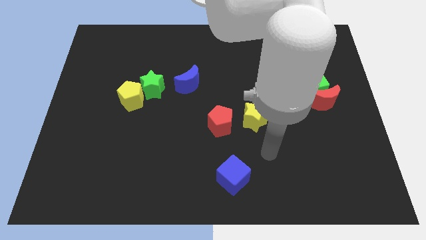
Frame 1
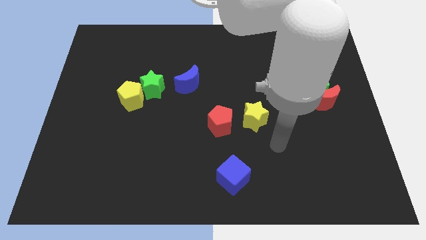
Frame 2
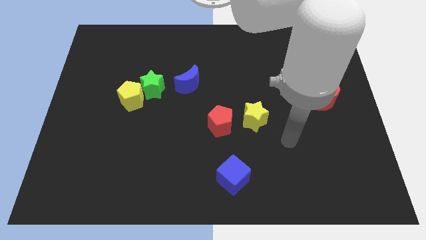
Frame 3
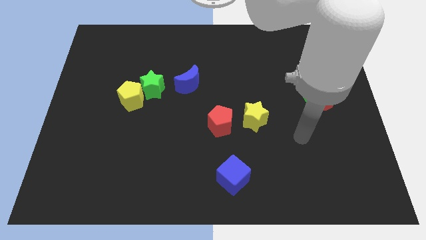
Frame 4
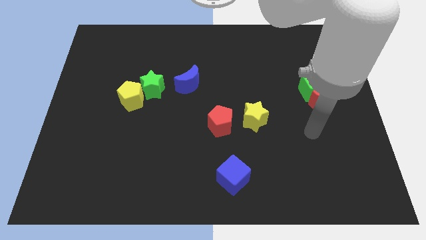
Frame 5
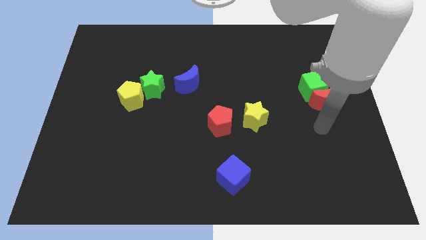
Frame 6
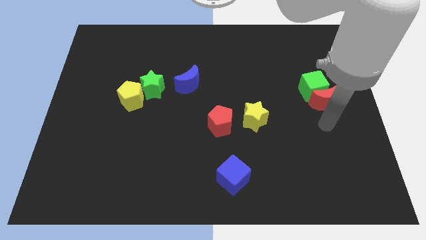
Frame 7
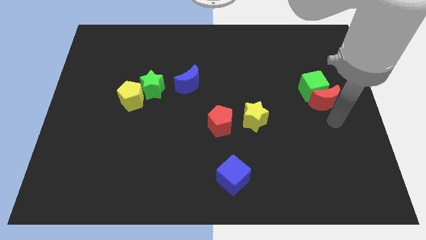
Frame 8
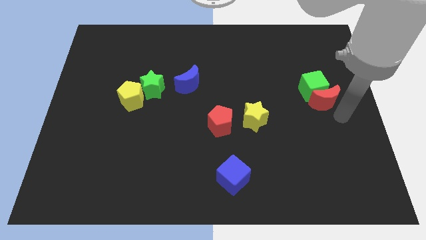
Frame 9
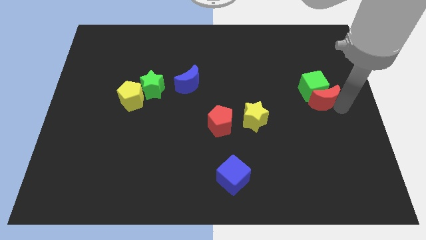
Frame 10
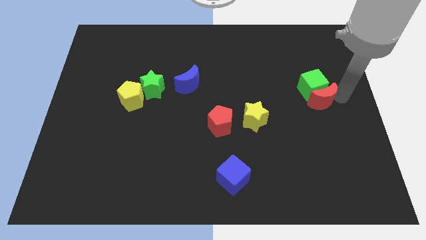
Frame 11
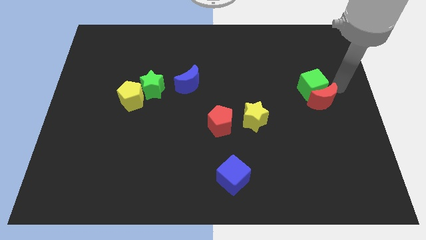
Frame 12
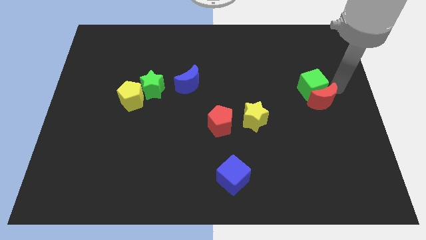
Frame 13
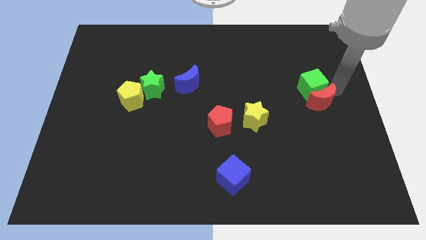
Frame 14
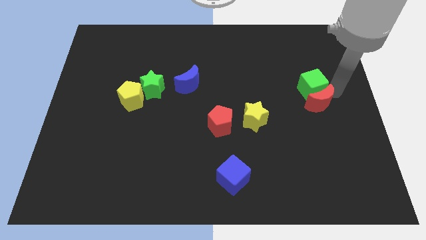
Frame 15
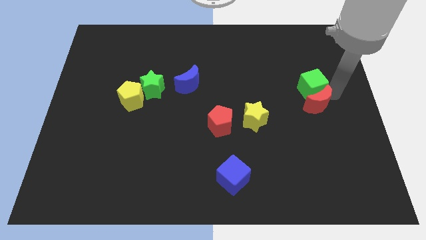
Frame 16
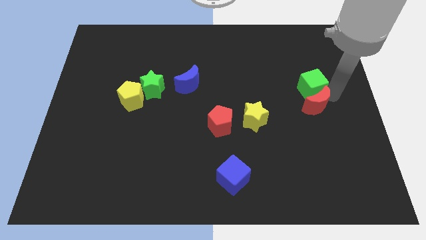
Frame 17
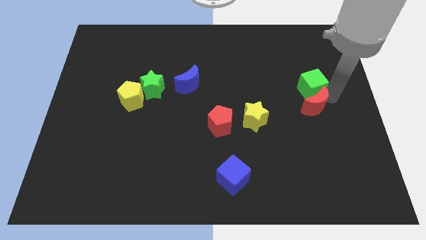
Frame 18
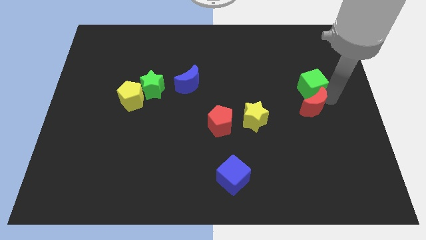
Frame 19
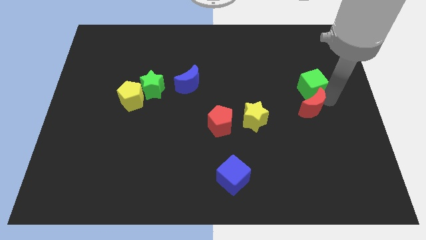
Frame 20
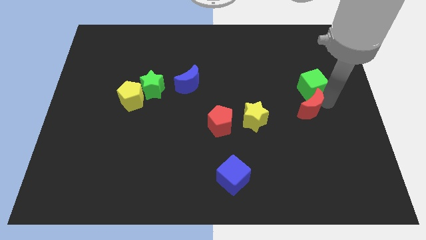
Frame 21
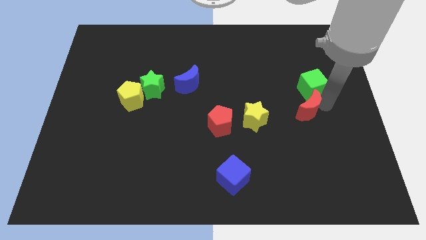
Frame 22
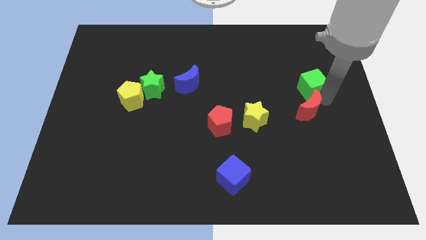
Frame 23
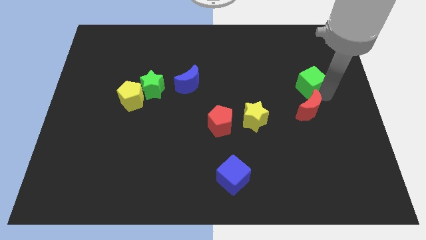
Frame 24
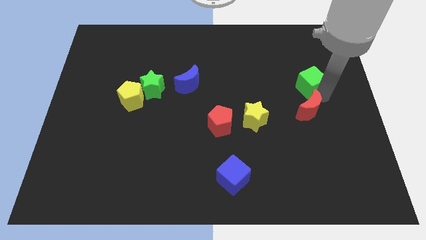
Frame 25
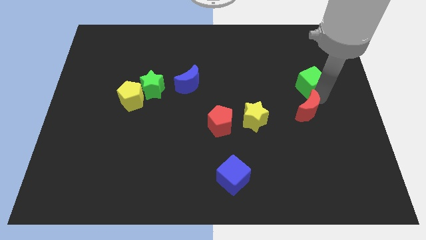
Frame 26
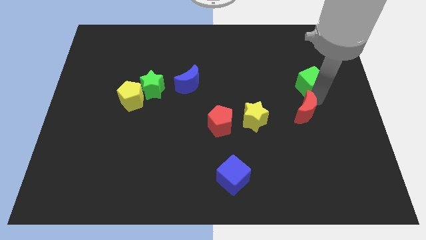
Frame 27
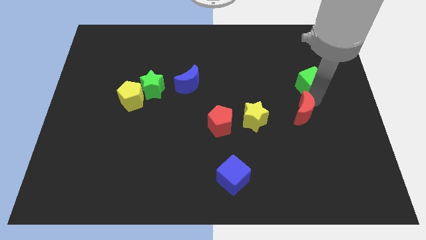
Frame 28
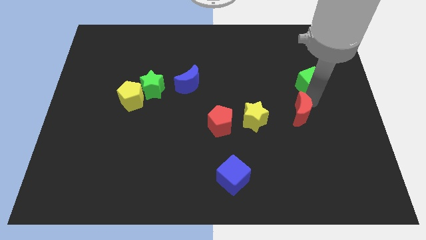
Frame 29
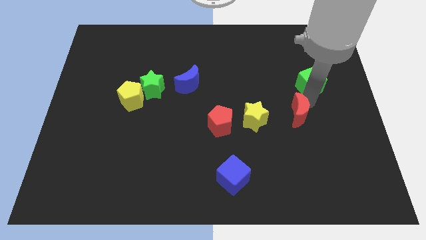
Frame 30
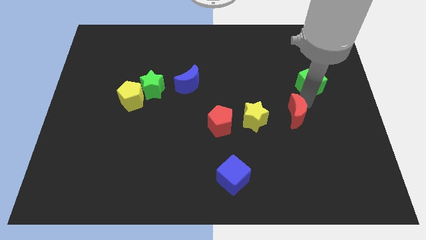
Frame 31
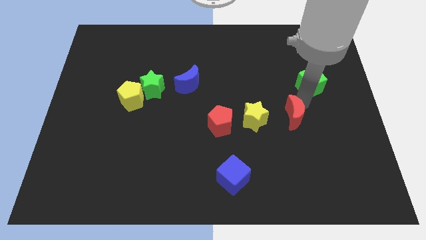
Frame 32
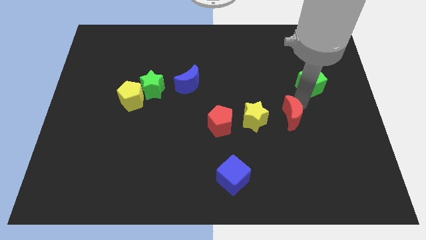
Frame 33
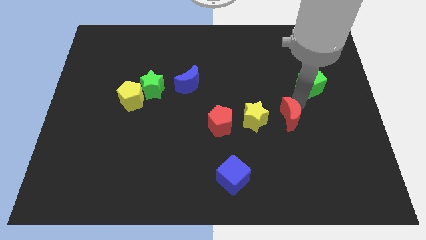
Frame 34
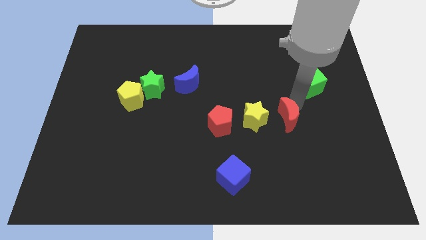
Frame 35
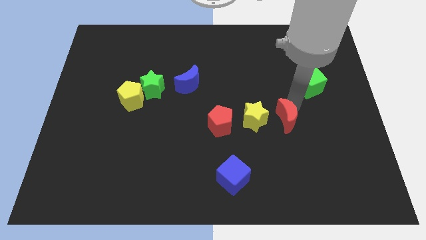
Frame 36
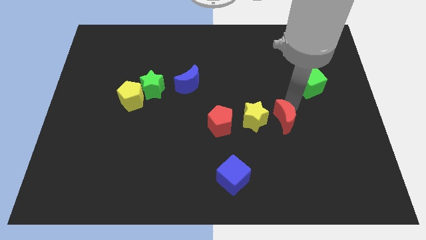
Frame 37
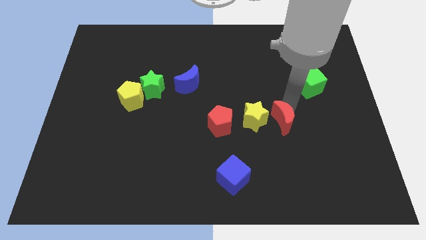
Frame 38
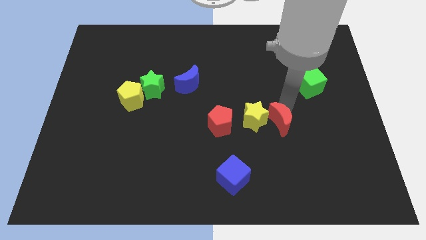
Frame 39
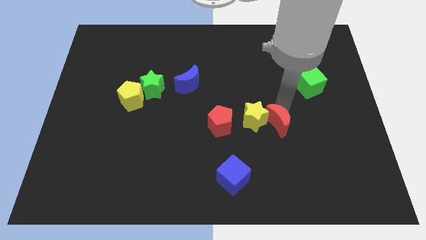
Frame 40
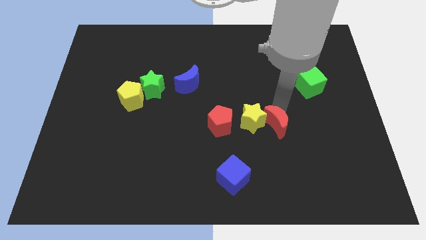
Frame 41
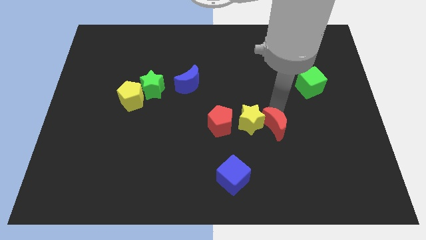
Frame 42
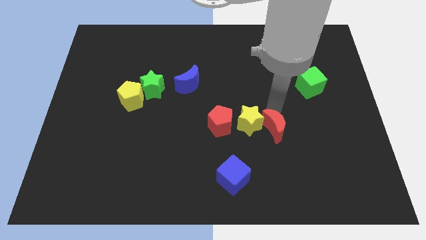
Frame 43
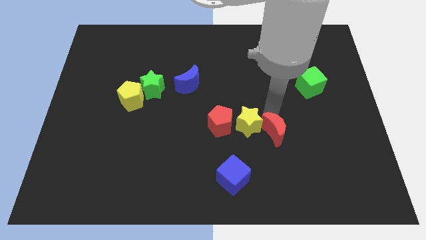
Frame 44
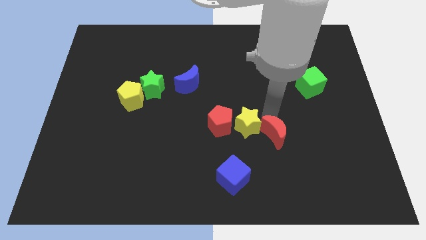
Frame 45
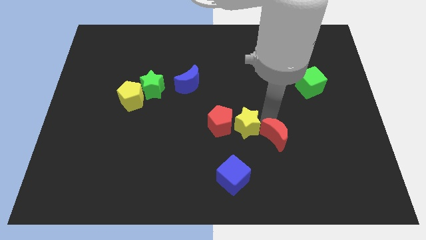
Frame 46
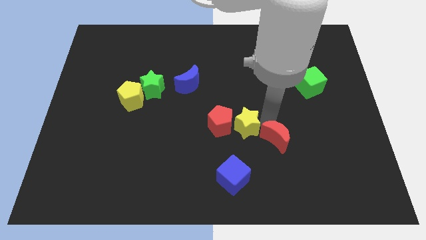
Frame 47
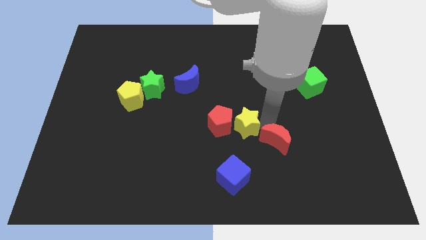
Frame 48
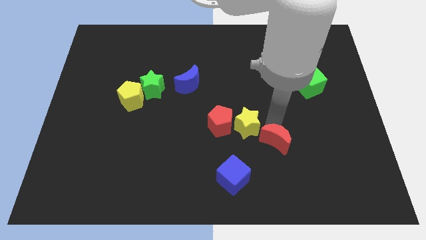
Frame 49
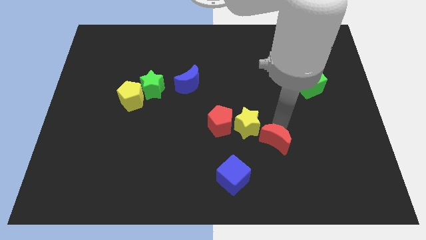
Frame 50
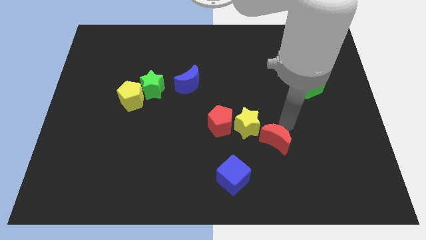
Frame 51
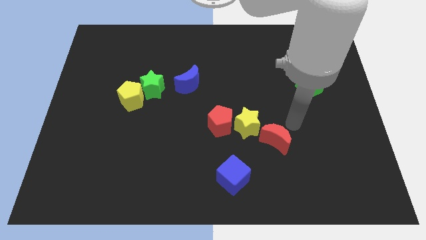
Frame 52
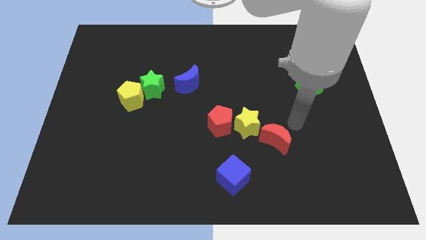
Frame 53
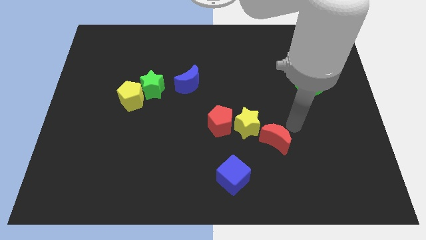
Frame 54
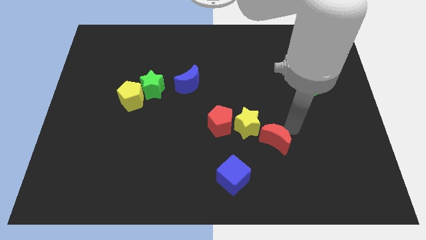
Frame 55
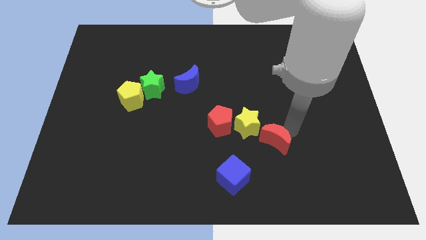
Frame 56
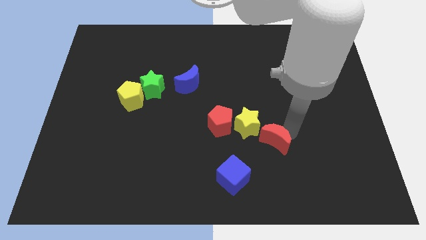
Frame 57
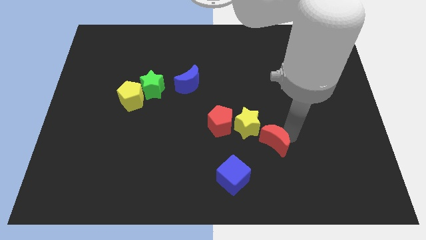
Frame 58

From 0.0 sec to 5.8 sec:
slide the red moon to the top right side of the blue cube

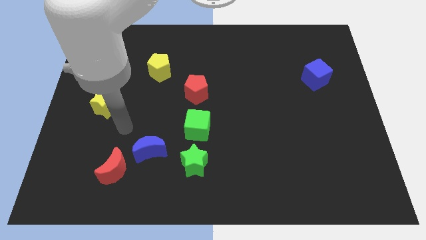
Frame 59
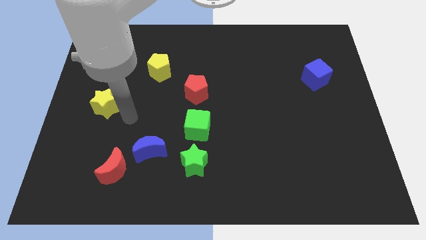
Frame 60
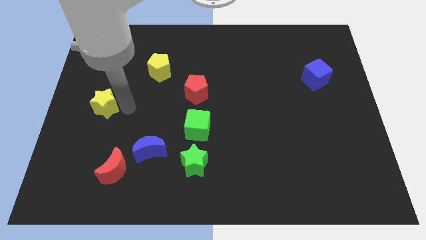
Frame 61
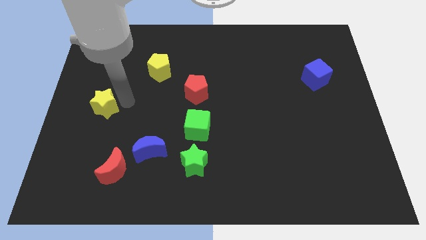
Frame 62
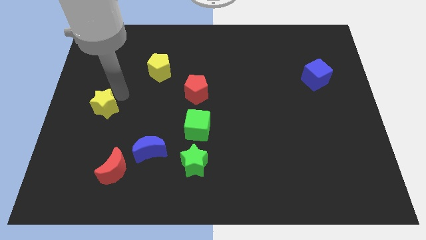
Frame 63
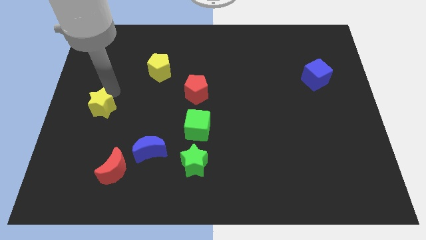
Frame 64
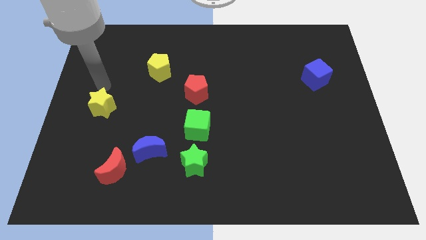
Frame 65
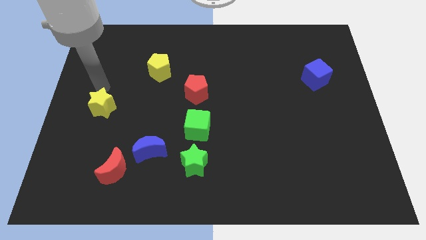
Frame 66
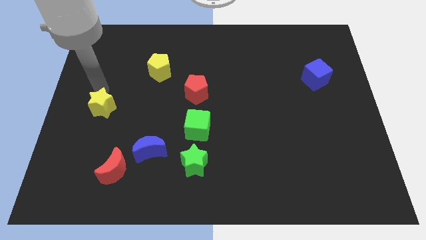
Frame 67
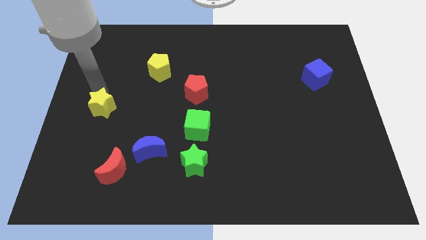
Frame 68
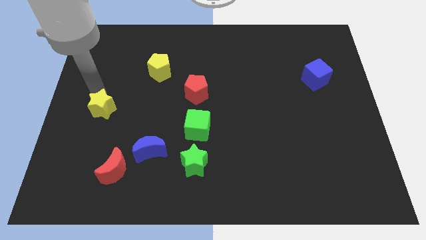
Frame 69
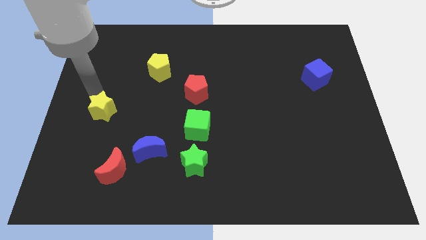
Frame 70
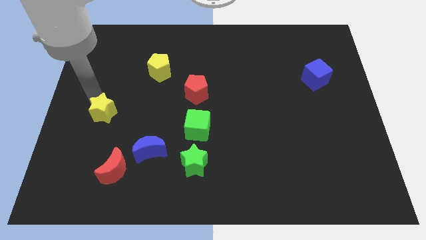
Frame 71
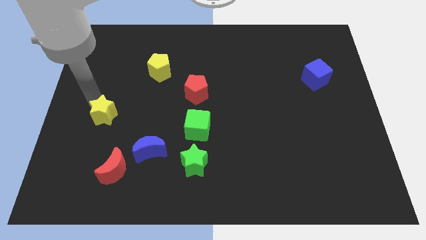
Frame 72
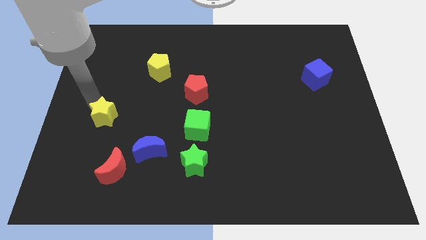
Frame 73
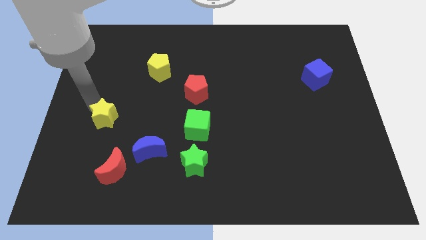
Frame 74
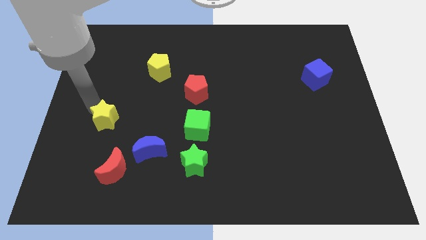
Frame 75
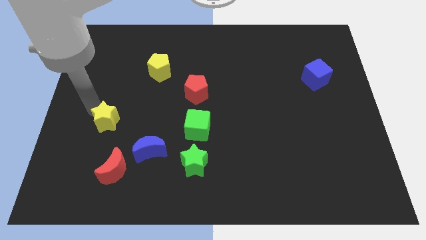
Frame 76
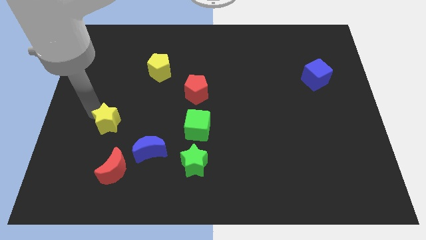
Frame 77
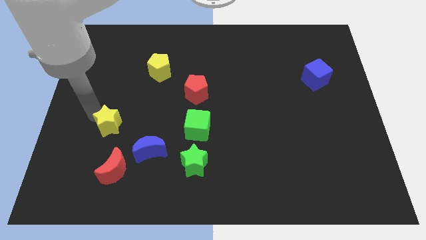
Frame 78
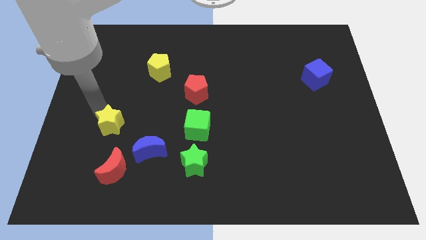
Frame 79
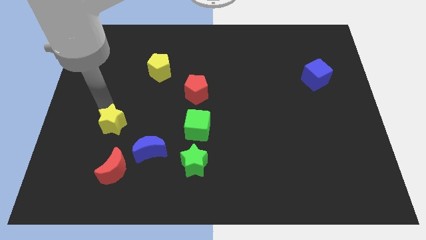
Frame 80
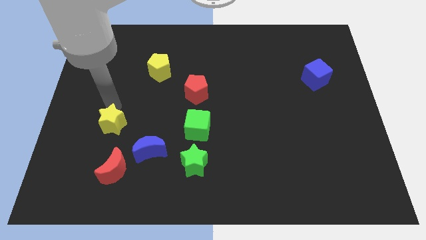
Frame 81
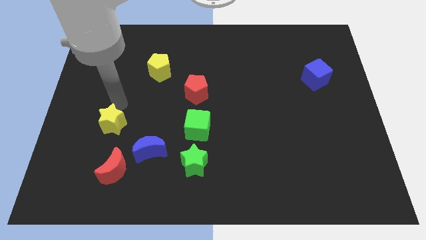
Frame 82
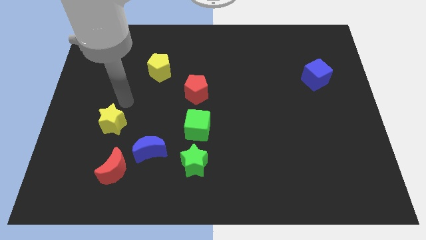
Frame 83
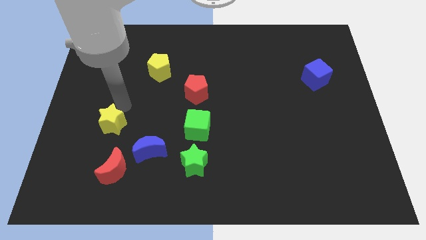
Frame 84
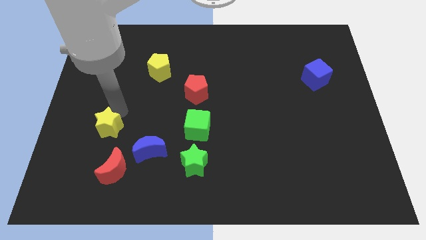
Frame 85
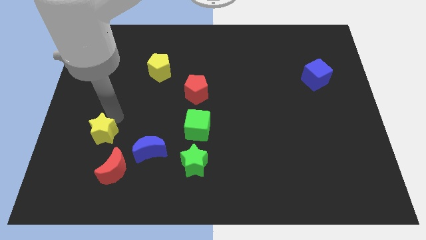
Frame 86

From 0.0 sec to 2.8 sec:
move the yellow star to the top left of the red moon
